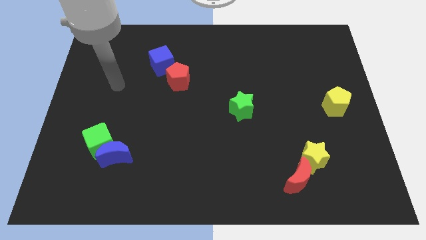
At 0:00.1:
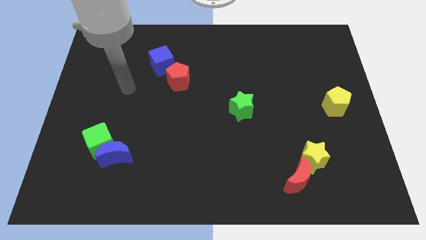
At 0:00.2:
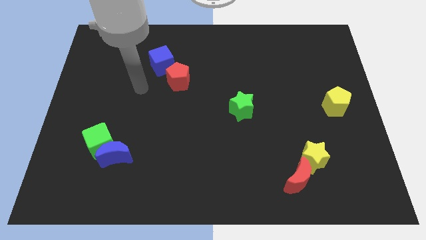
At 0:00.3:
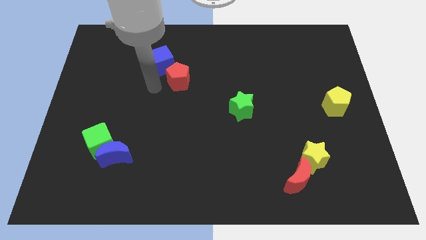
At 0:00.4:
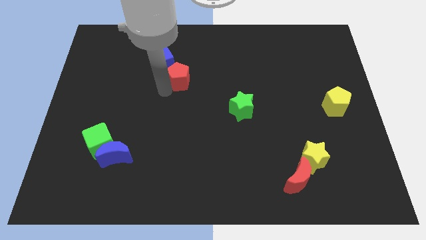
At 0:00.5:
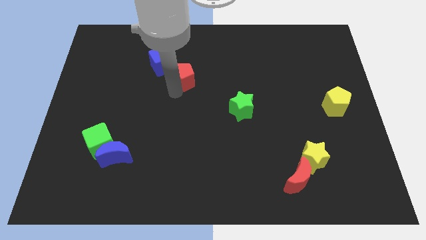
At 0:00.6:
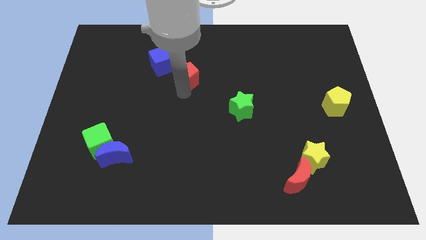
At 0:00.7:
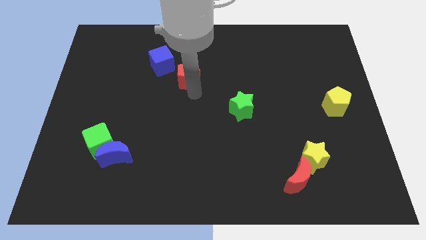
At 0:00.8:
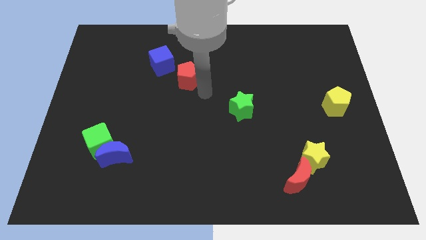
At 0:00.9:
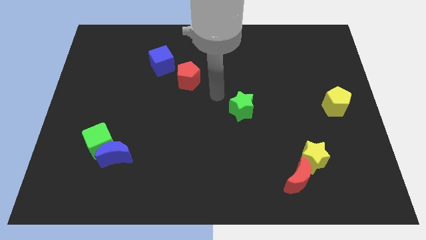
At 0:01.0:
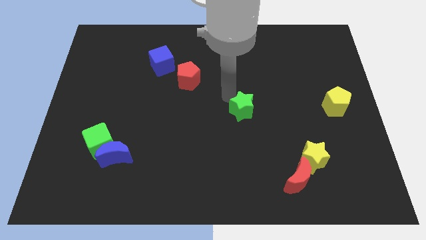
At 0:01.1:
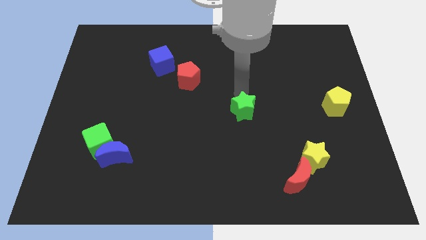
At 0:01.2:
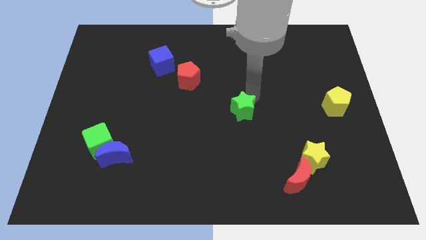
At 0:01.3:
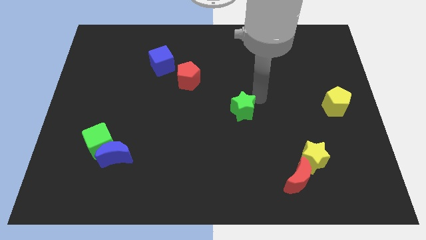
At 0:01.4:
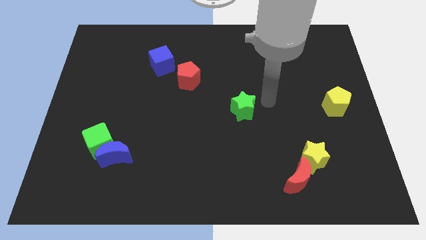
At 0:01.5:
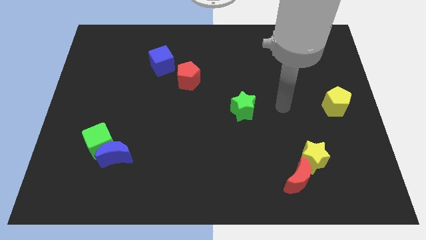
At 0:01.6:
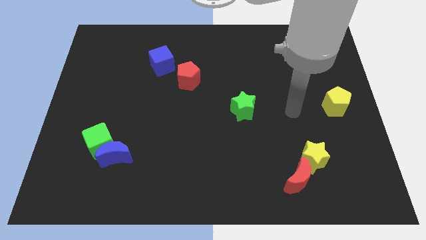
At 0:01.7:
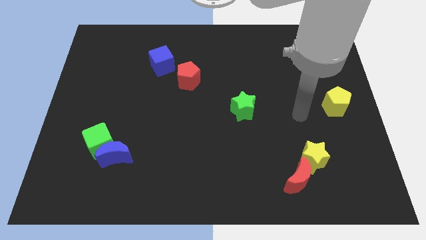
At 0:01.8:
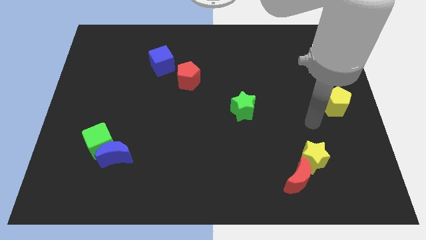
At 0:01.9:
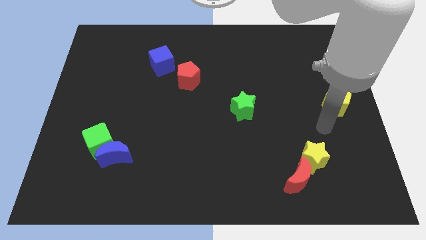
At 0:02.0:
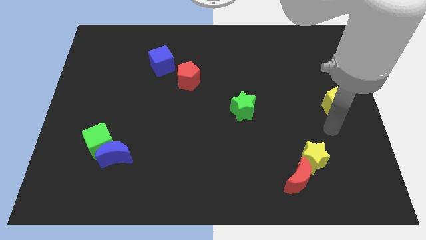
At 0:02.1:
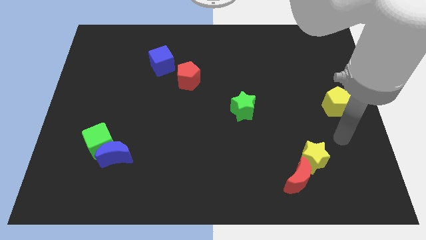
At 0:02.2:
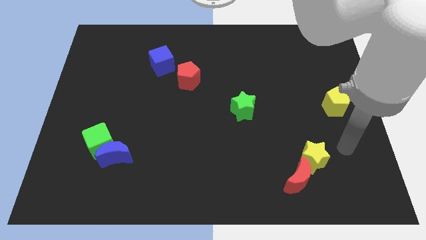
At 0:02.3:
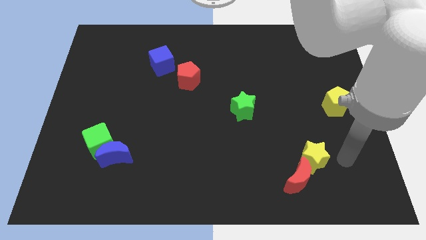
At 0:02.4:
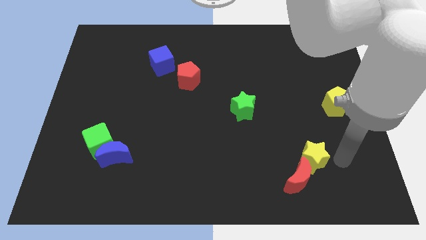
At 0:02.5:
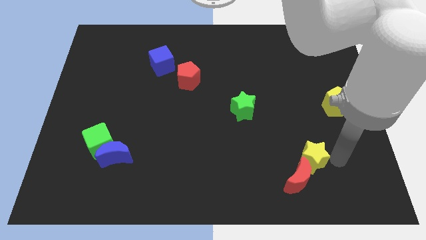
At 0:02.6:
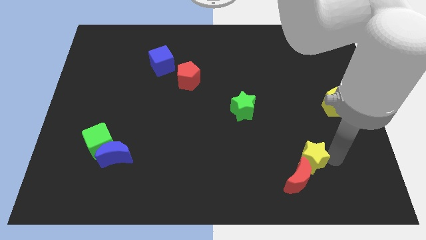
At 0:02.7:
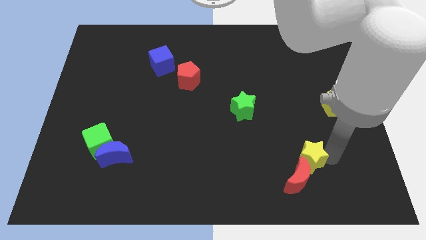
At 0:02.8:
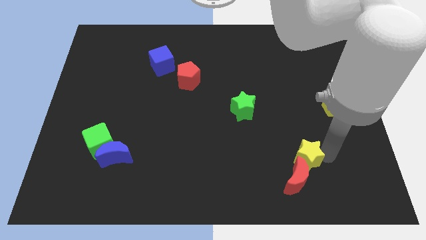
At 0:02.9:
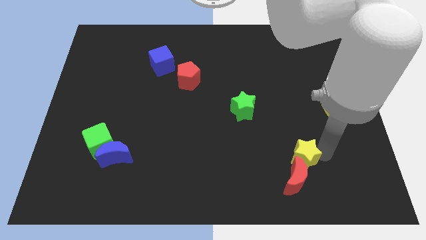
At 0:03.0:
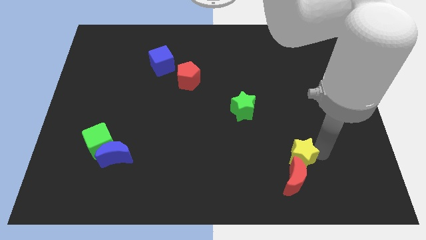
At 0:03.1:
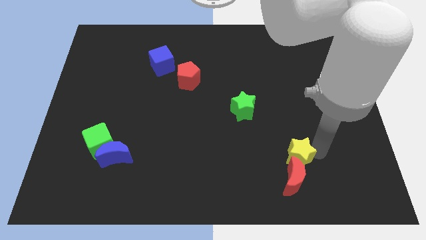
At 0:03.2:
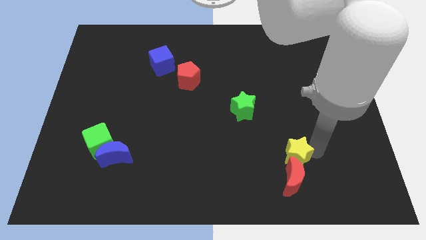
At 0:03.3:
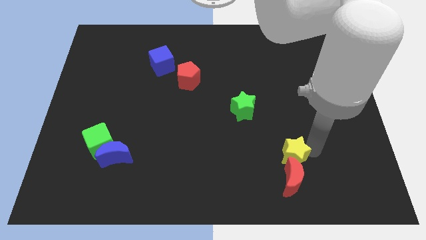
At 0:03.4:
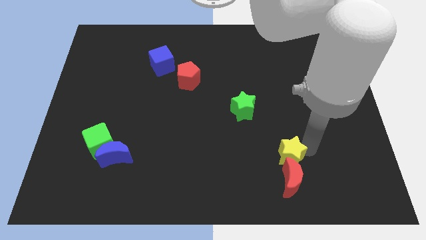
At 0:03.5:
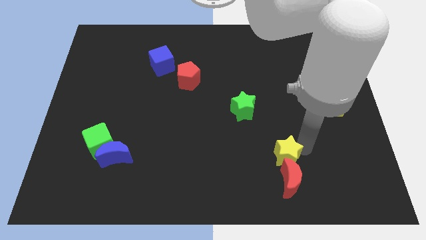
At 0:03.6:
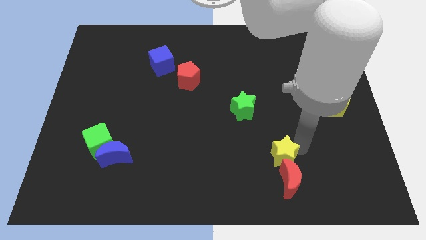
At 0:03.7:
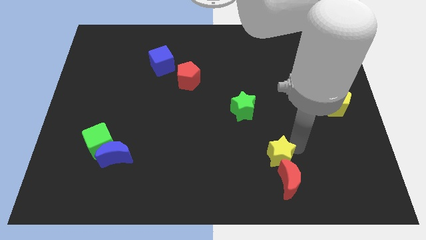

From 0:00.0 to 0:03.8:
slightly slide the yellow star left

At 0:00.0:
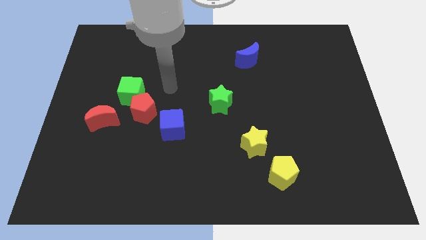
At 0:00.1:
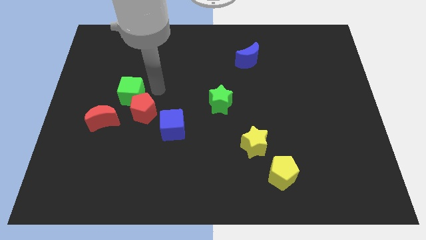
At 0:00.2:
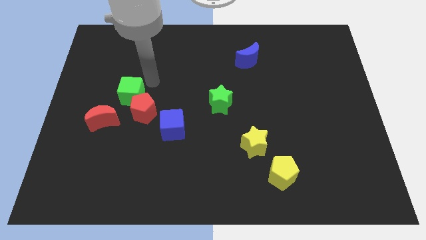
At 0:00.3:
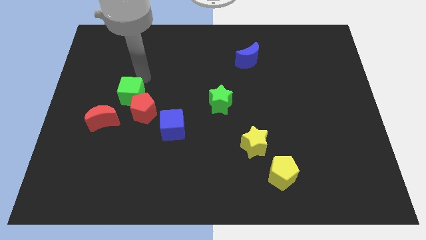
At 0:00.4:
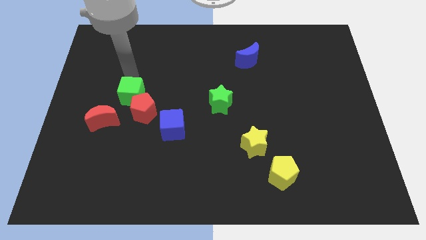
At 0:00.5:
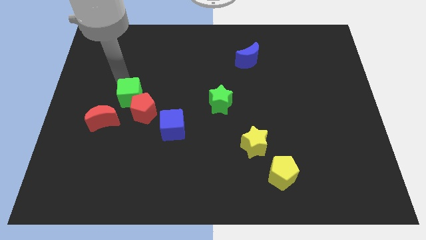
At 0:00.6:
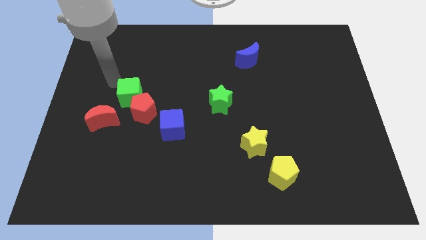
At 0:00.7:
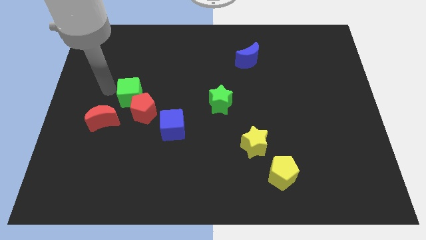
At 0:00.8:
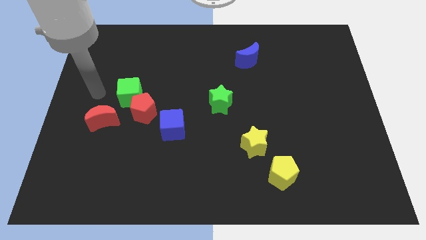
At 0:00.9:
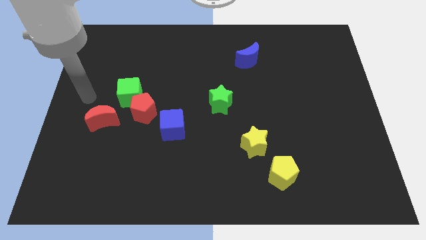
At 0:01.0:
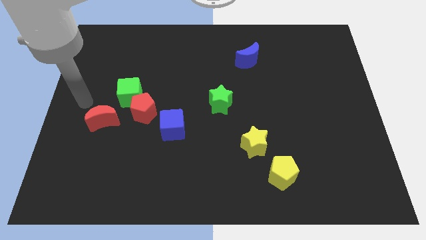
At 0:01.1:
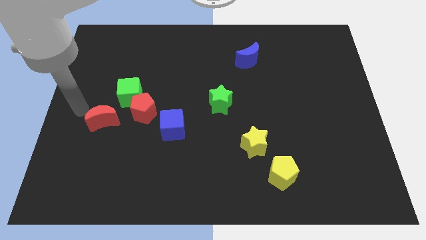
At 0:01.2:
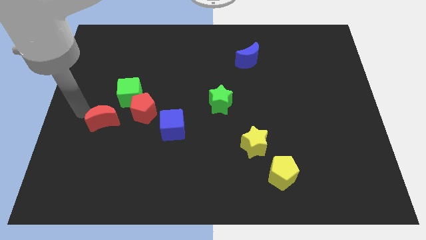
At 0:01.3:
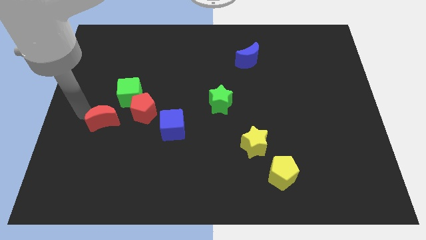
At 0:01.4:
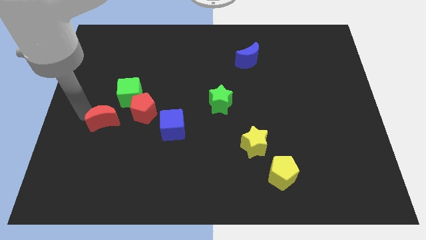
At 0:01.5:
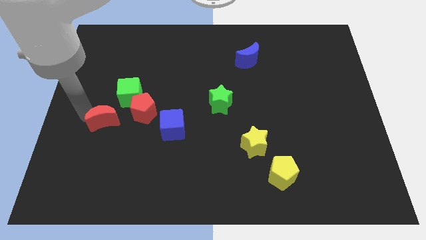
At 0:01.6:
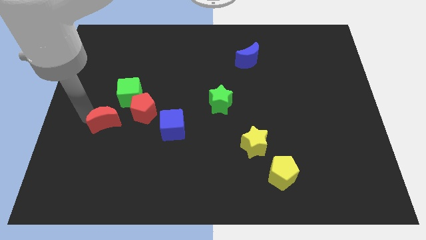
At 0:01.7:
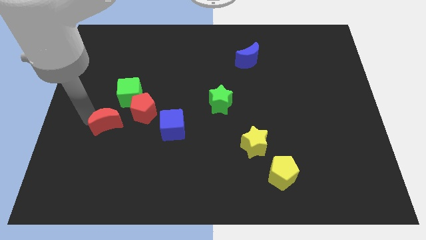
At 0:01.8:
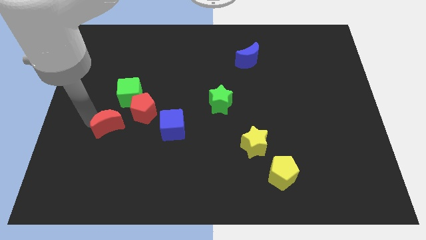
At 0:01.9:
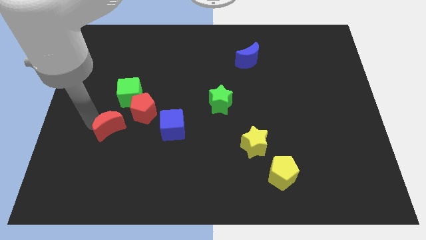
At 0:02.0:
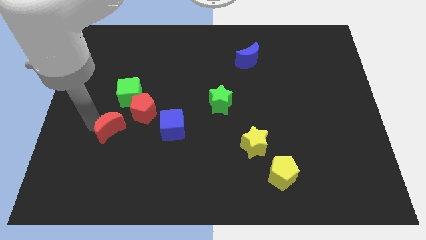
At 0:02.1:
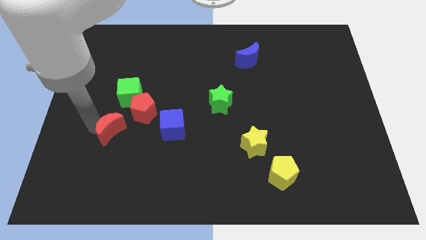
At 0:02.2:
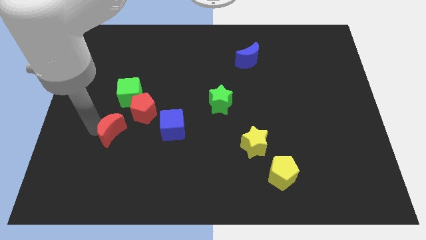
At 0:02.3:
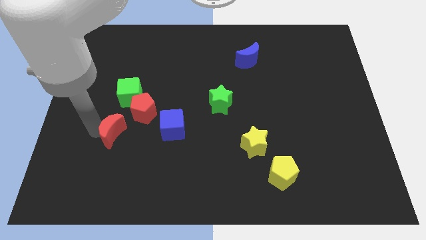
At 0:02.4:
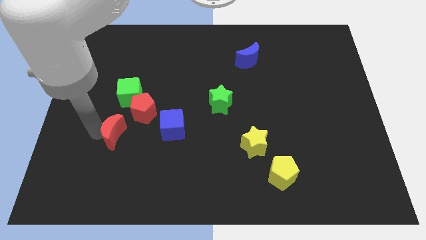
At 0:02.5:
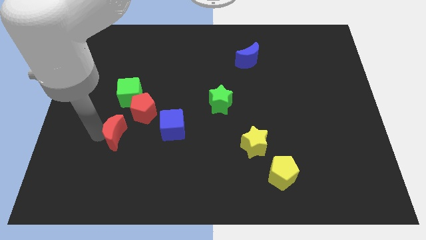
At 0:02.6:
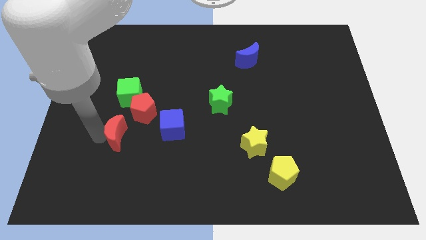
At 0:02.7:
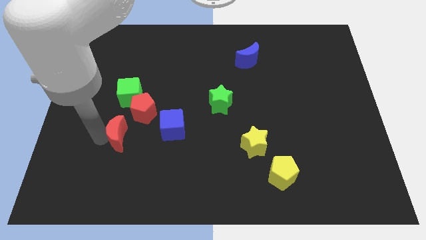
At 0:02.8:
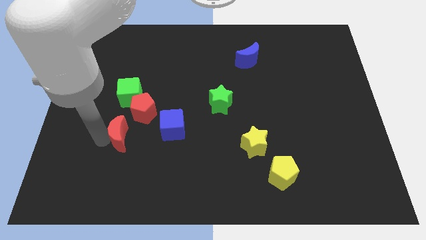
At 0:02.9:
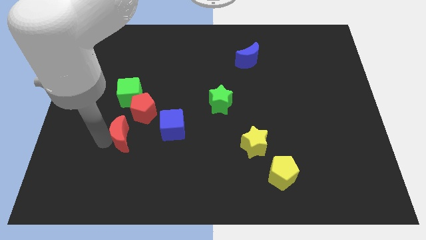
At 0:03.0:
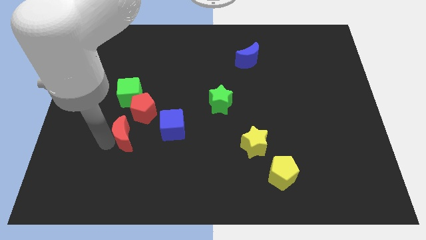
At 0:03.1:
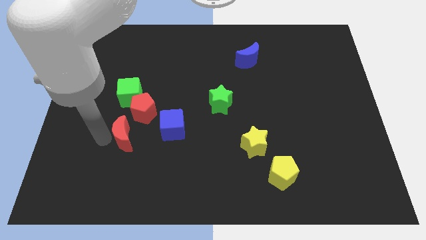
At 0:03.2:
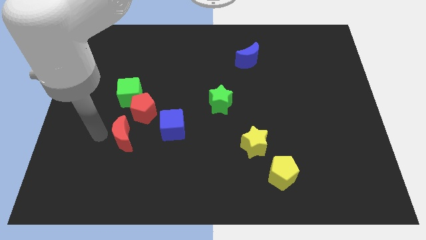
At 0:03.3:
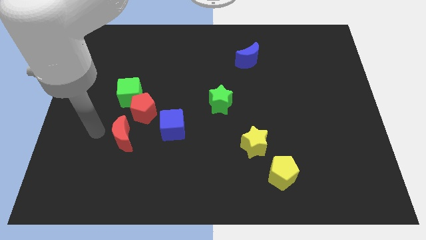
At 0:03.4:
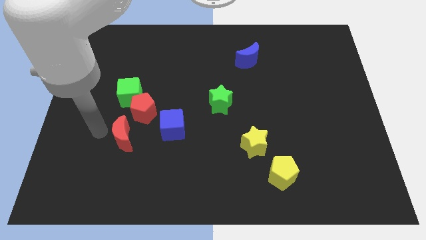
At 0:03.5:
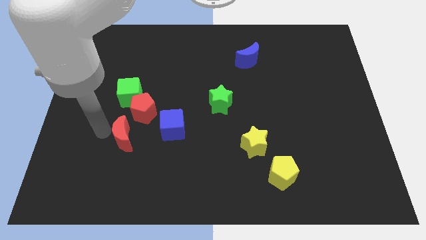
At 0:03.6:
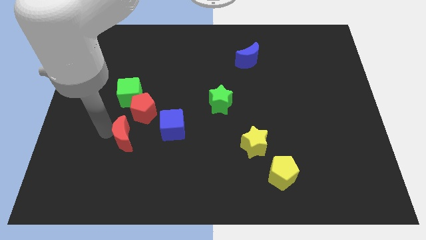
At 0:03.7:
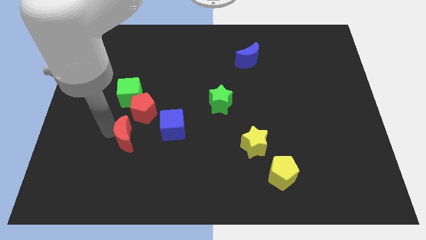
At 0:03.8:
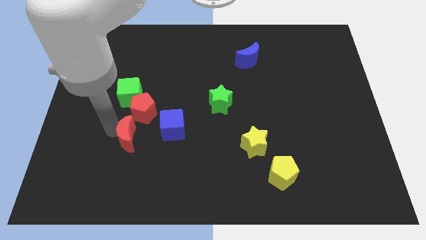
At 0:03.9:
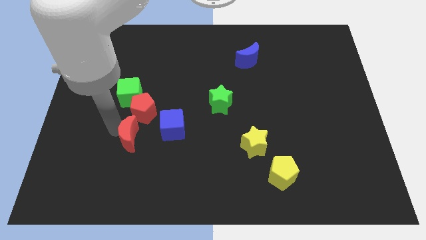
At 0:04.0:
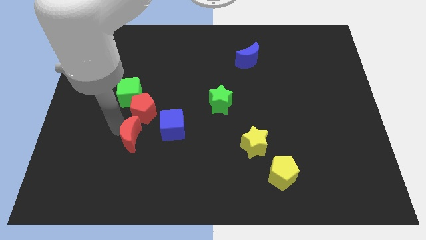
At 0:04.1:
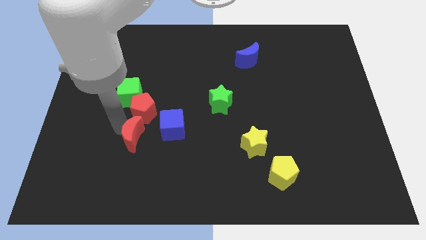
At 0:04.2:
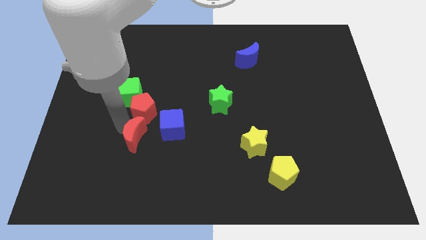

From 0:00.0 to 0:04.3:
slightly slide the red moon to the right

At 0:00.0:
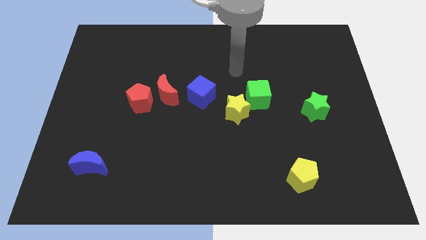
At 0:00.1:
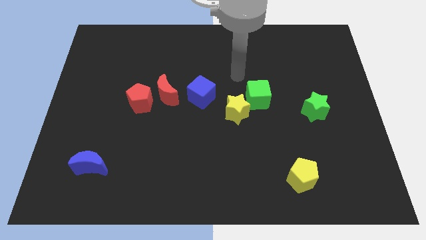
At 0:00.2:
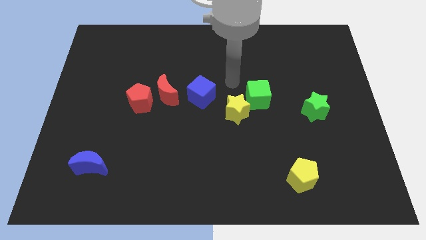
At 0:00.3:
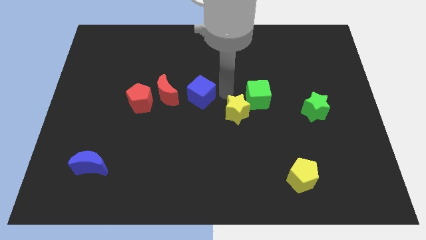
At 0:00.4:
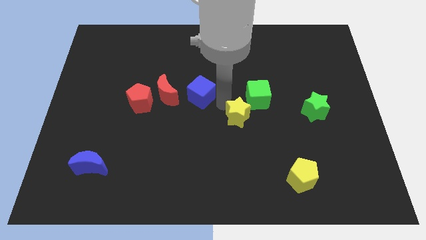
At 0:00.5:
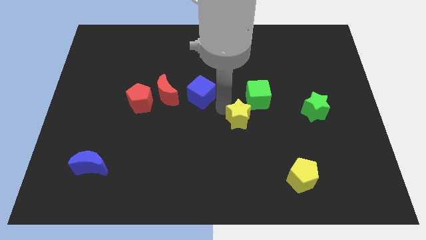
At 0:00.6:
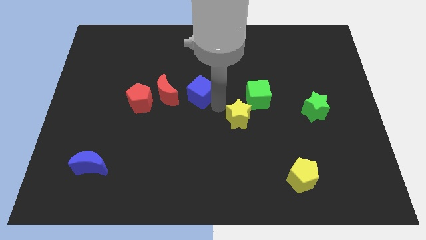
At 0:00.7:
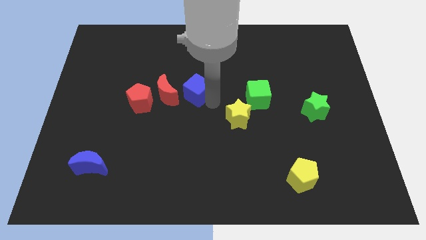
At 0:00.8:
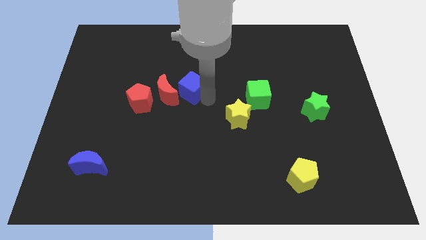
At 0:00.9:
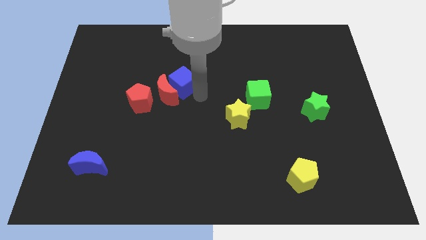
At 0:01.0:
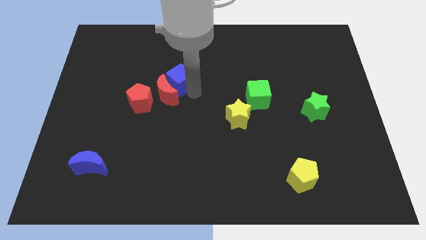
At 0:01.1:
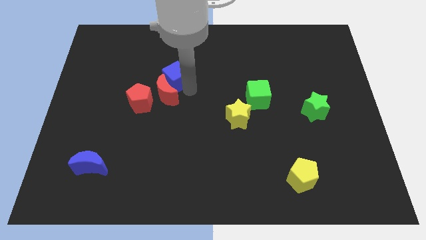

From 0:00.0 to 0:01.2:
slightly slide the blue cube up and to the left
